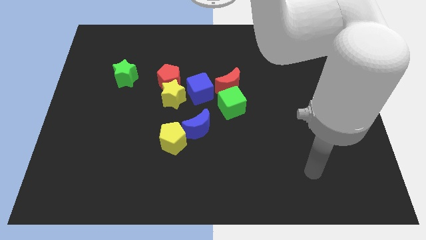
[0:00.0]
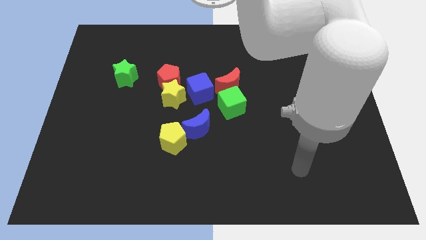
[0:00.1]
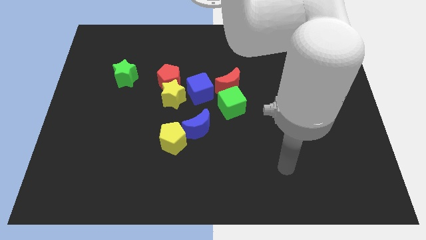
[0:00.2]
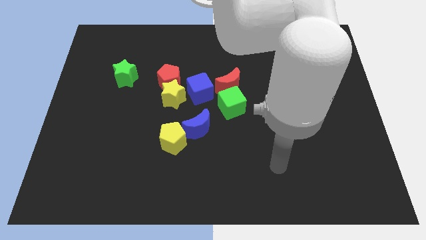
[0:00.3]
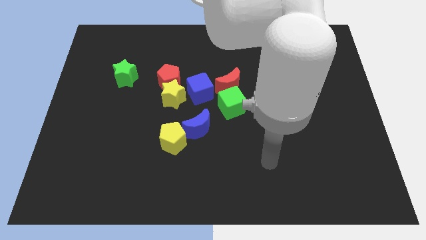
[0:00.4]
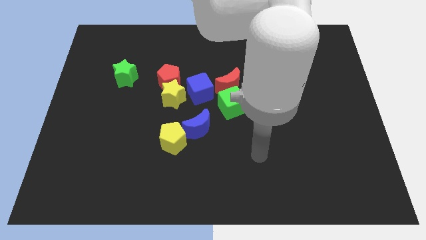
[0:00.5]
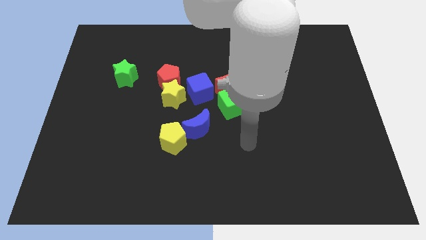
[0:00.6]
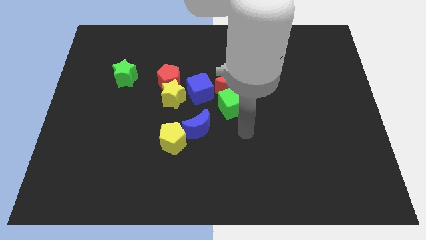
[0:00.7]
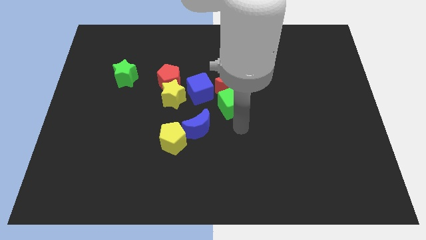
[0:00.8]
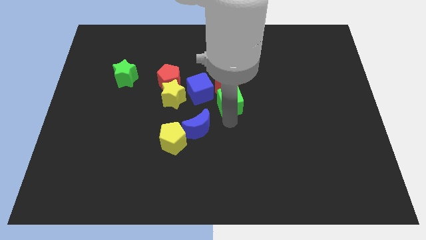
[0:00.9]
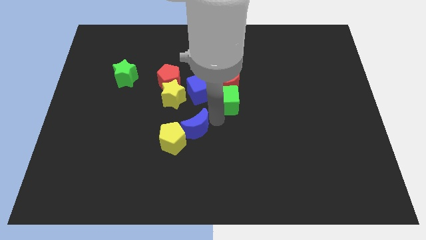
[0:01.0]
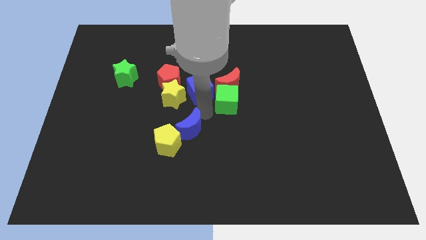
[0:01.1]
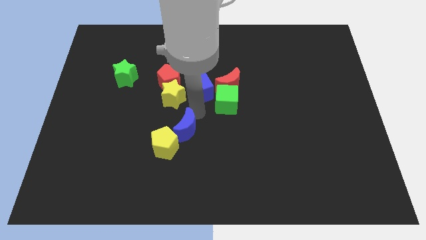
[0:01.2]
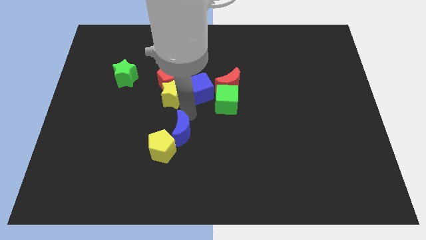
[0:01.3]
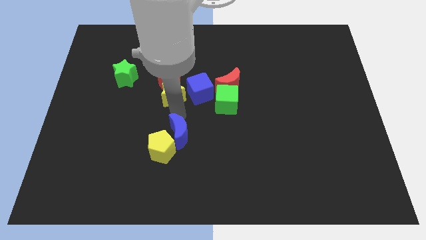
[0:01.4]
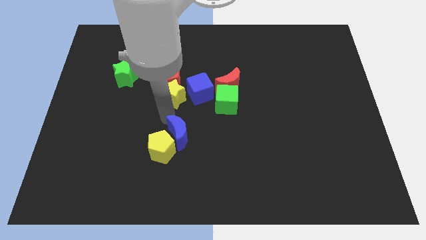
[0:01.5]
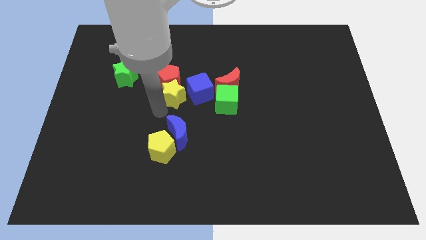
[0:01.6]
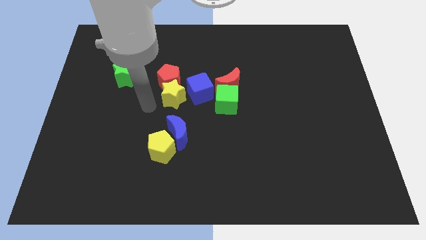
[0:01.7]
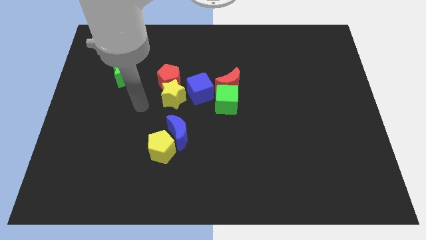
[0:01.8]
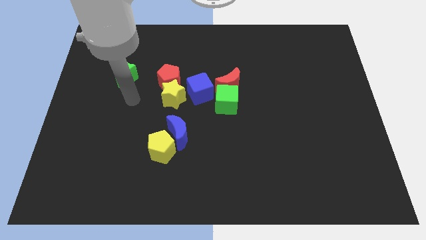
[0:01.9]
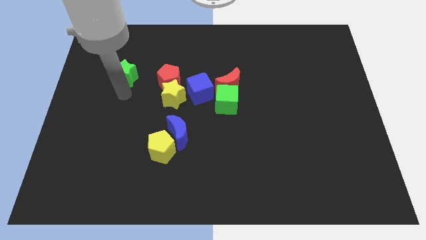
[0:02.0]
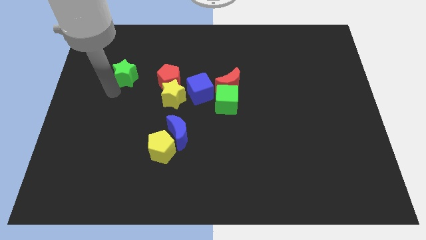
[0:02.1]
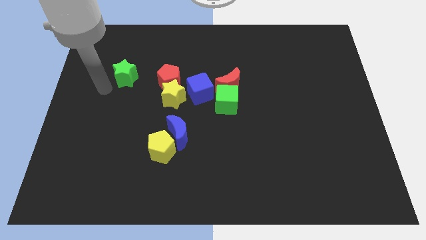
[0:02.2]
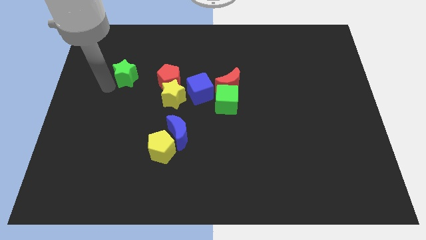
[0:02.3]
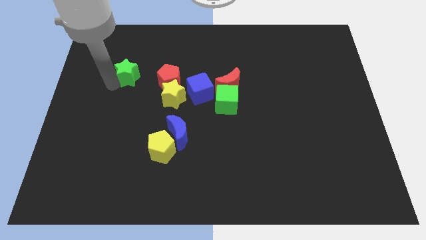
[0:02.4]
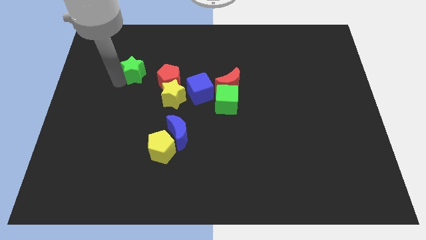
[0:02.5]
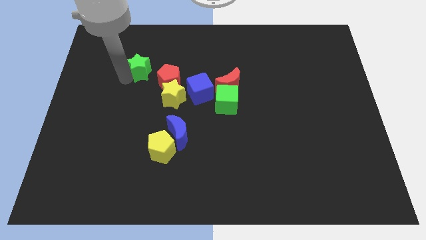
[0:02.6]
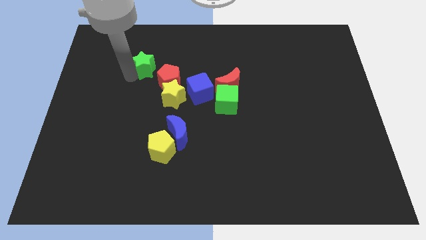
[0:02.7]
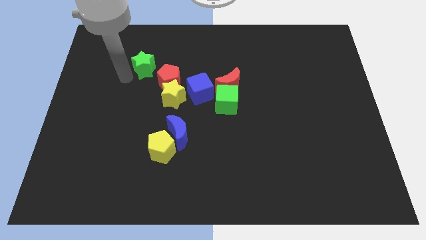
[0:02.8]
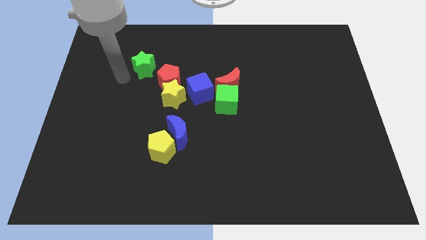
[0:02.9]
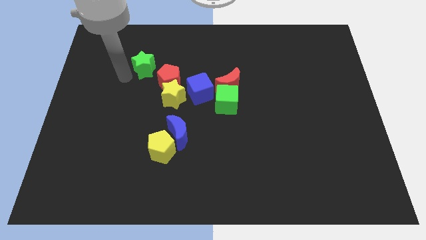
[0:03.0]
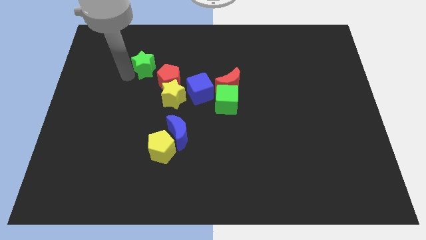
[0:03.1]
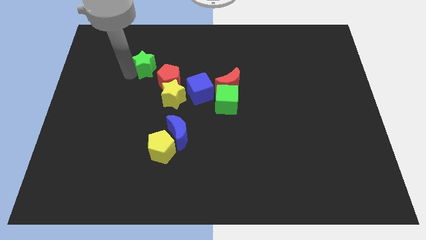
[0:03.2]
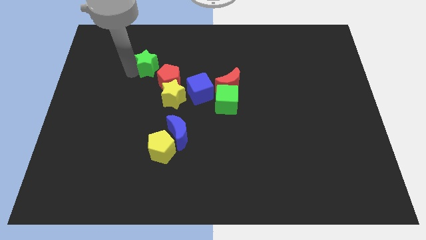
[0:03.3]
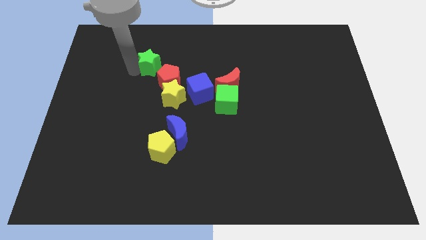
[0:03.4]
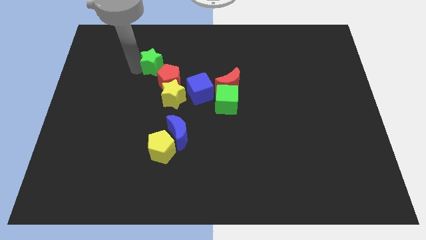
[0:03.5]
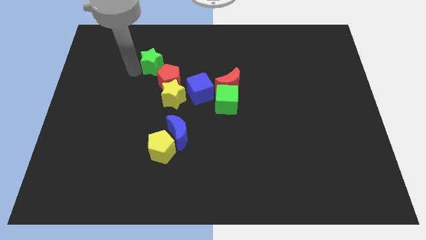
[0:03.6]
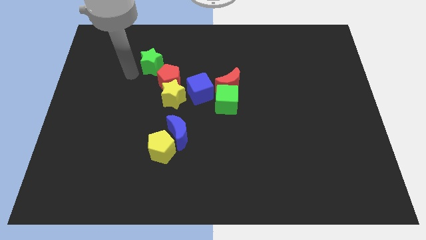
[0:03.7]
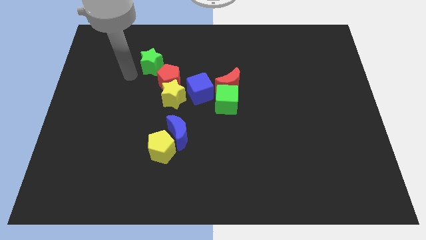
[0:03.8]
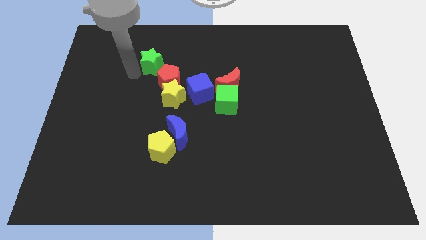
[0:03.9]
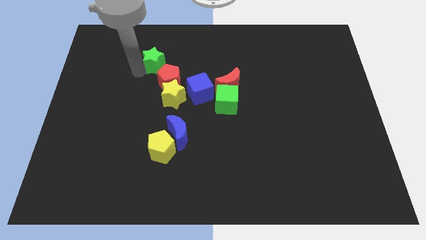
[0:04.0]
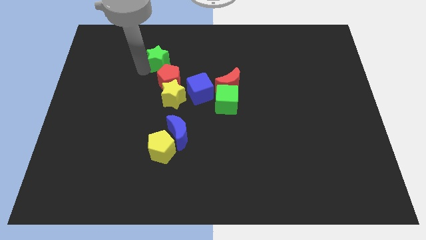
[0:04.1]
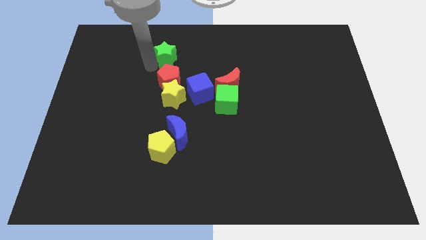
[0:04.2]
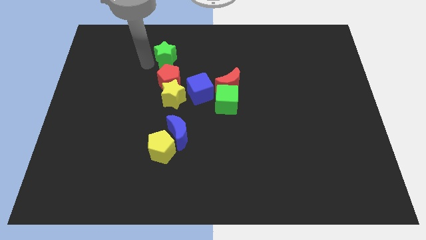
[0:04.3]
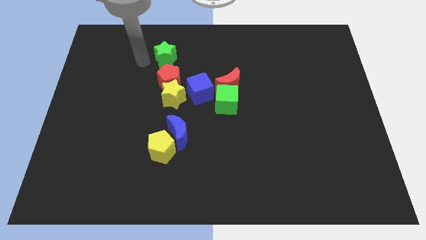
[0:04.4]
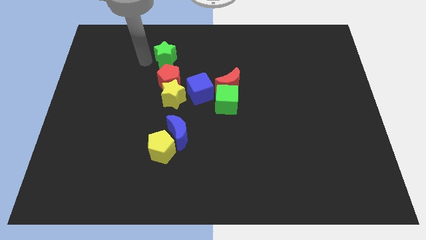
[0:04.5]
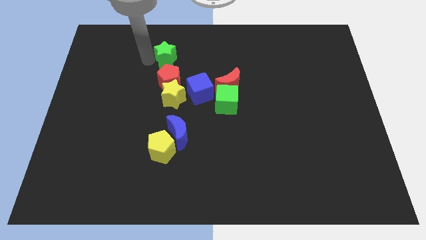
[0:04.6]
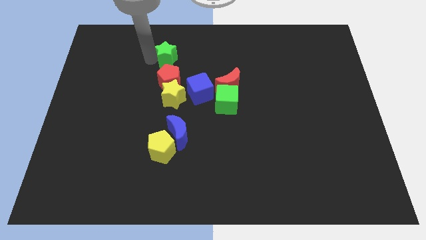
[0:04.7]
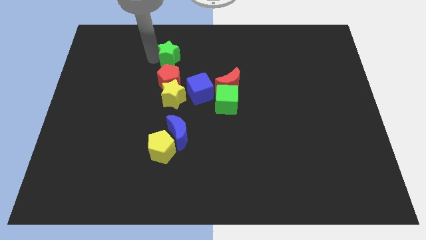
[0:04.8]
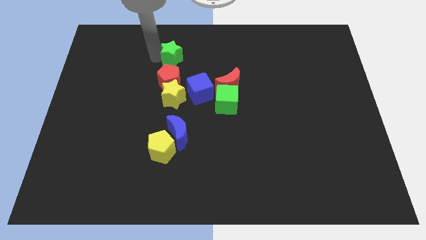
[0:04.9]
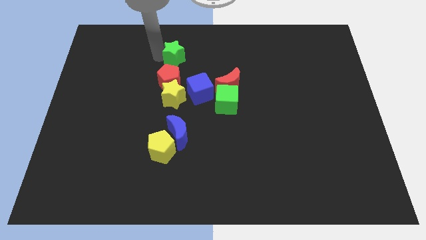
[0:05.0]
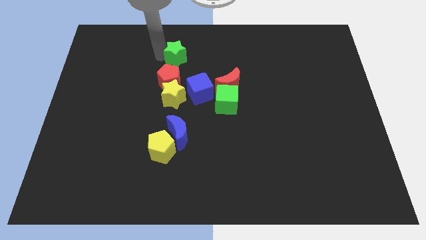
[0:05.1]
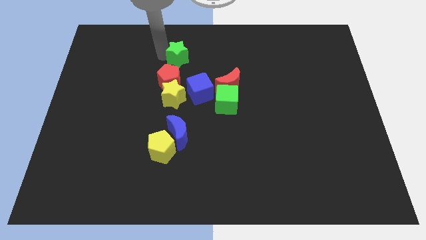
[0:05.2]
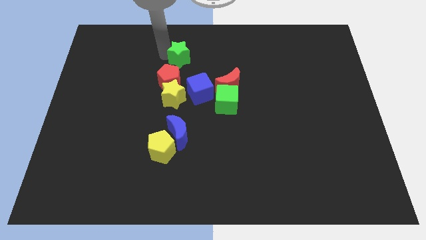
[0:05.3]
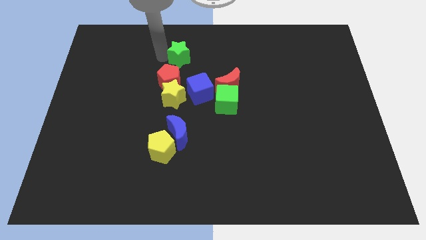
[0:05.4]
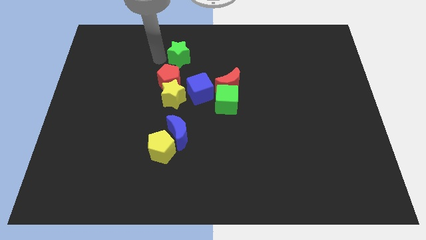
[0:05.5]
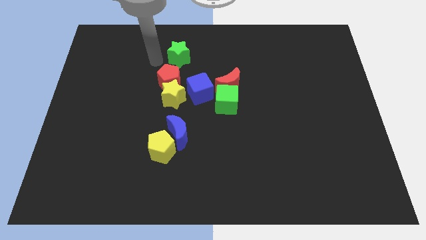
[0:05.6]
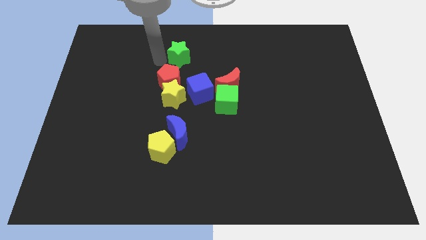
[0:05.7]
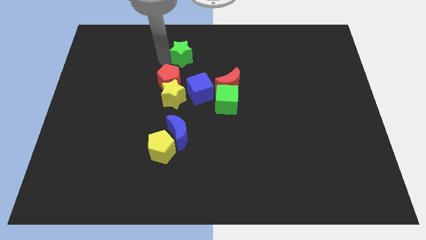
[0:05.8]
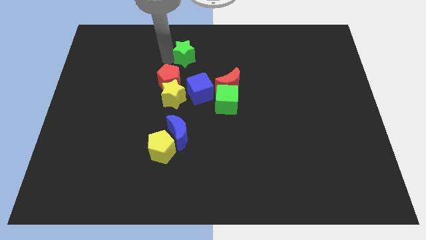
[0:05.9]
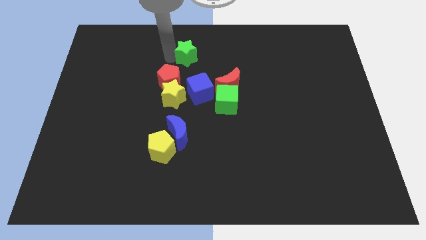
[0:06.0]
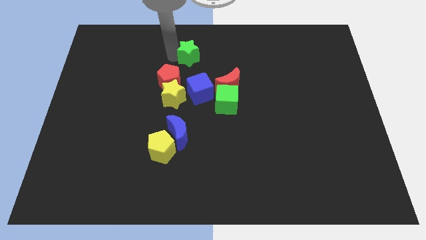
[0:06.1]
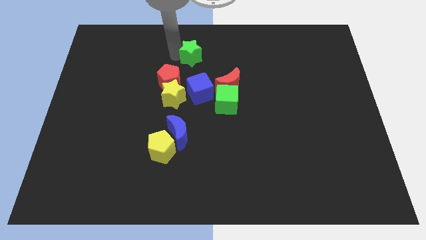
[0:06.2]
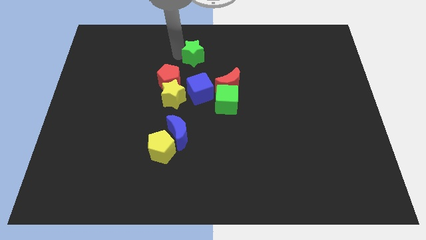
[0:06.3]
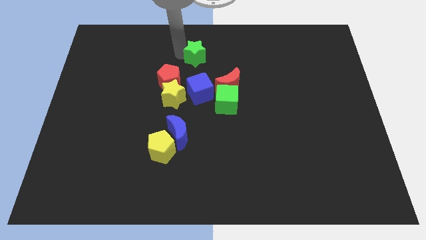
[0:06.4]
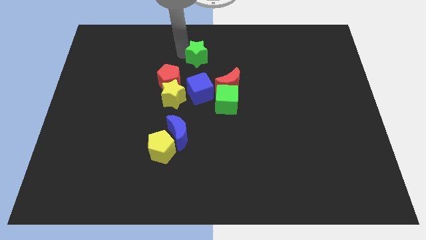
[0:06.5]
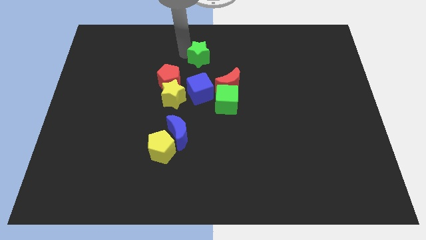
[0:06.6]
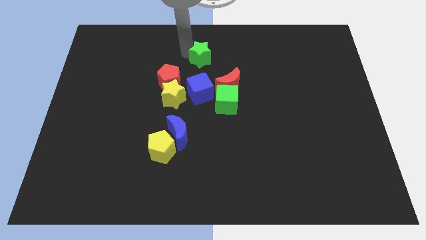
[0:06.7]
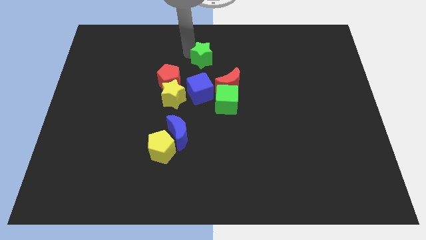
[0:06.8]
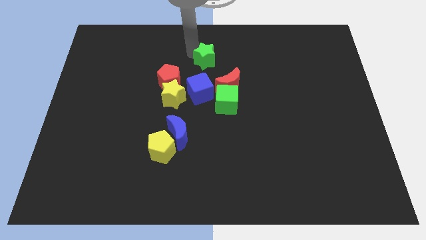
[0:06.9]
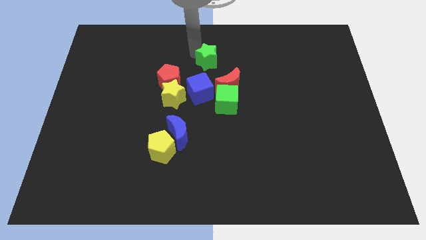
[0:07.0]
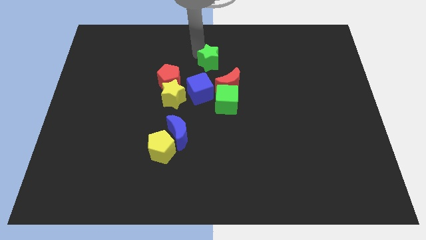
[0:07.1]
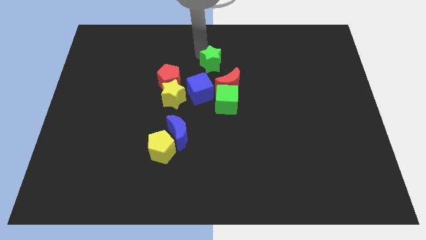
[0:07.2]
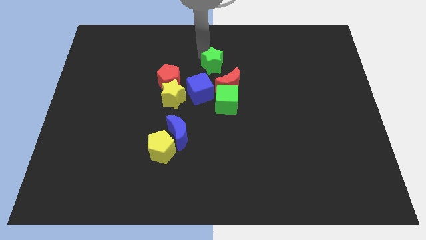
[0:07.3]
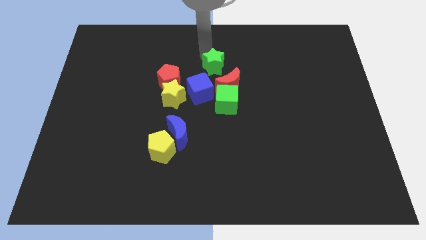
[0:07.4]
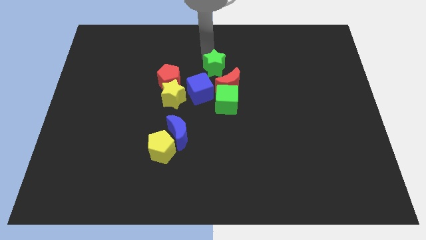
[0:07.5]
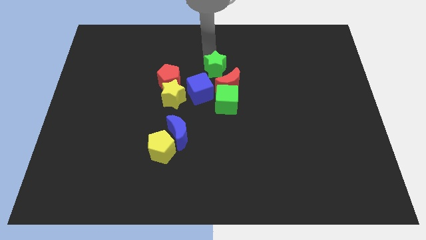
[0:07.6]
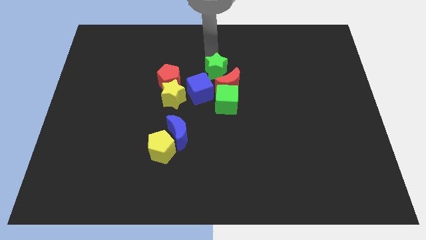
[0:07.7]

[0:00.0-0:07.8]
slide the green star close to the red moon
